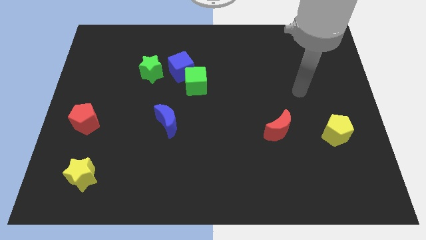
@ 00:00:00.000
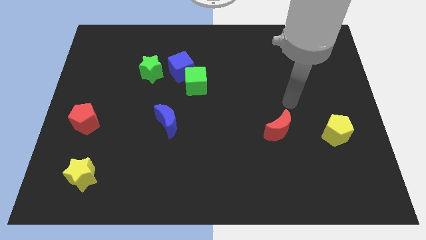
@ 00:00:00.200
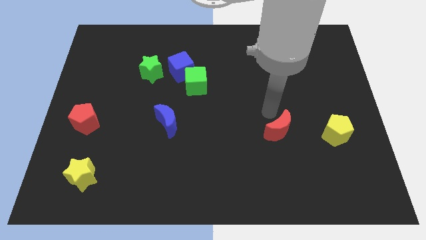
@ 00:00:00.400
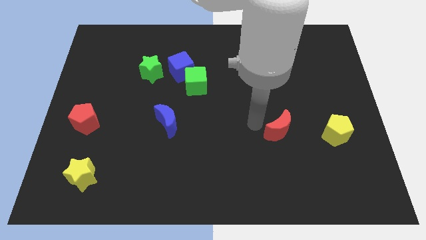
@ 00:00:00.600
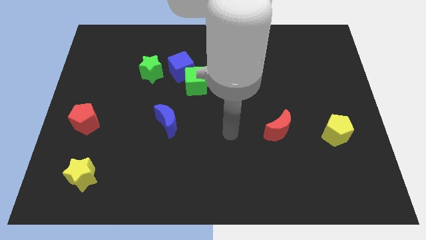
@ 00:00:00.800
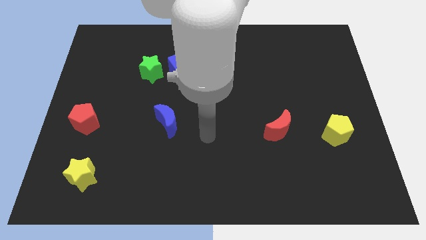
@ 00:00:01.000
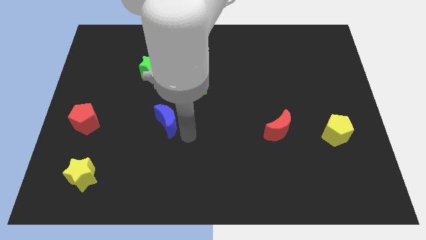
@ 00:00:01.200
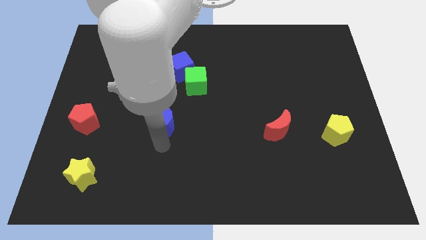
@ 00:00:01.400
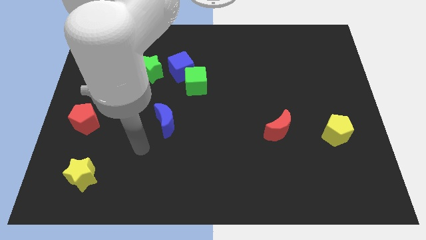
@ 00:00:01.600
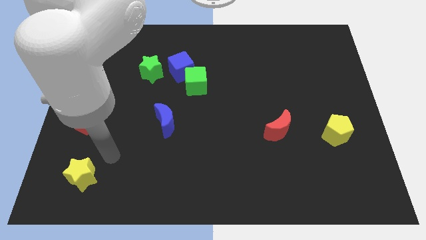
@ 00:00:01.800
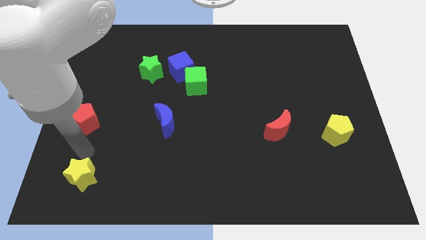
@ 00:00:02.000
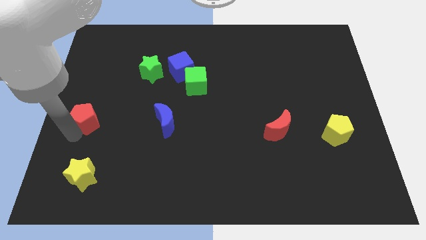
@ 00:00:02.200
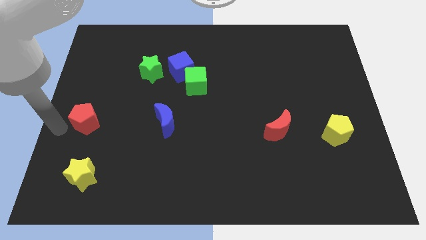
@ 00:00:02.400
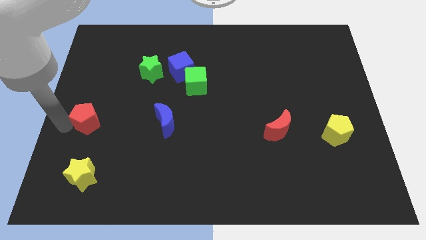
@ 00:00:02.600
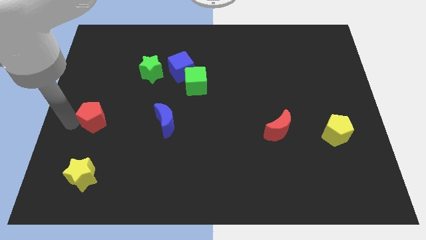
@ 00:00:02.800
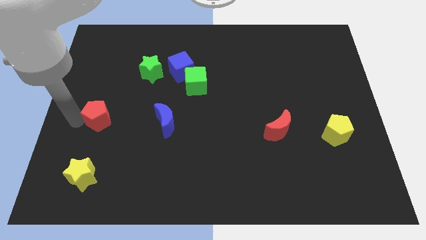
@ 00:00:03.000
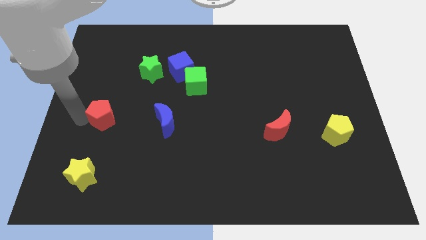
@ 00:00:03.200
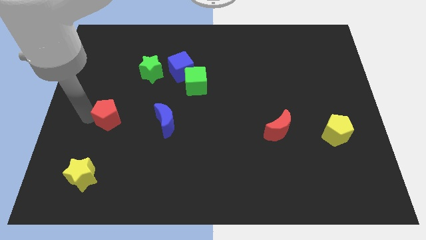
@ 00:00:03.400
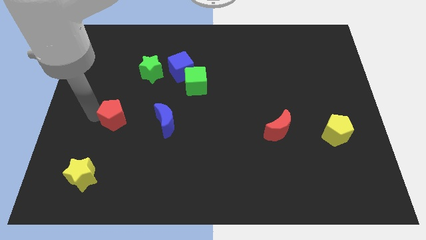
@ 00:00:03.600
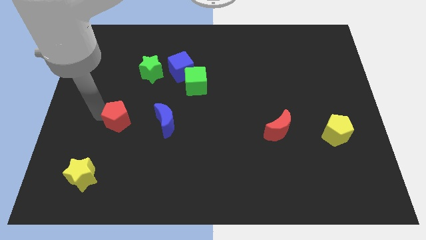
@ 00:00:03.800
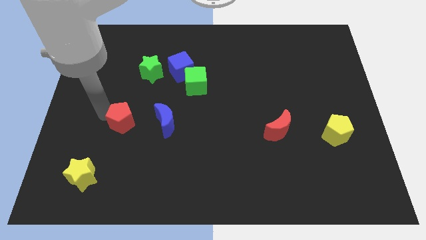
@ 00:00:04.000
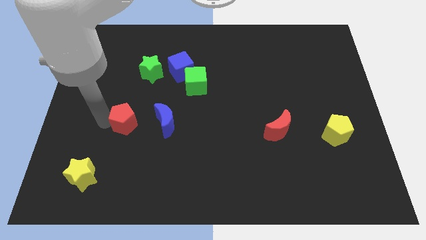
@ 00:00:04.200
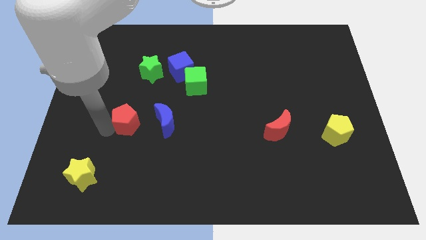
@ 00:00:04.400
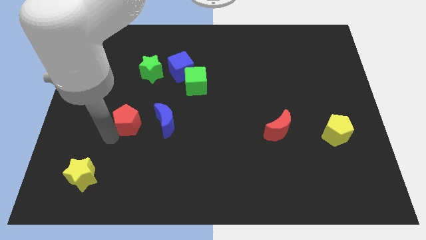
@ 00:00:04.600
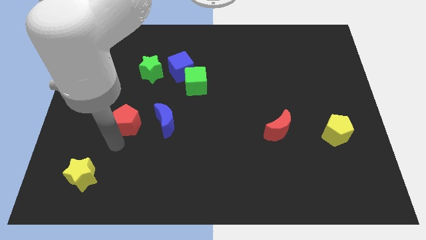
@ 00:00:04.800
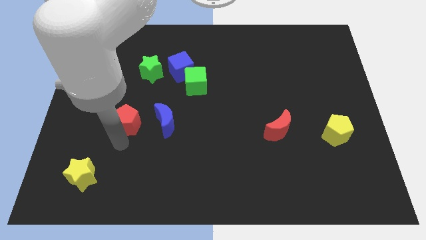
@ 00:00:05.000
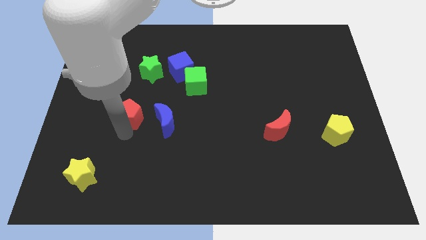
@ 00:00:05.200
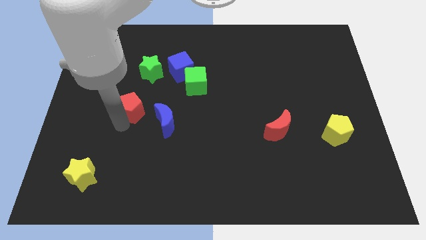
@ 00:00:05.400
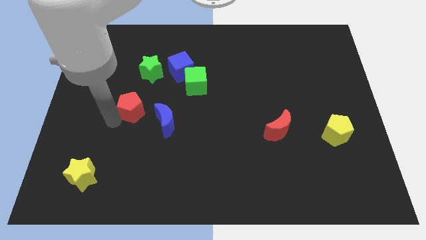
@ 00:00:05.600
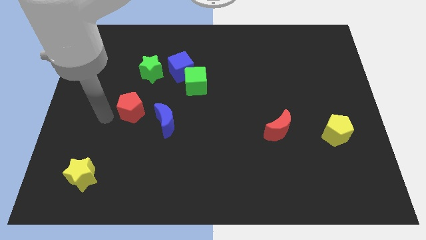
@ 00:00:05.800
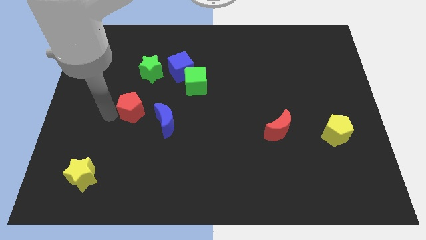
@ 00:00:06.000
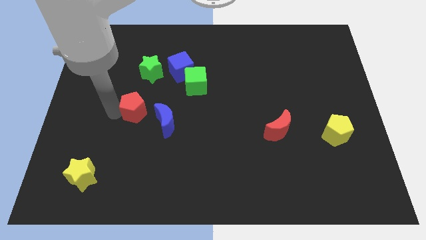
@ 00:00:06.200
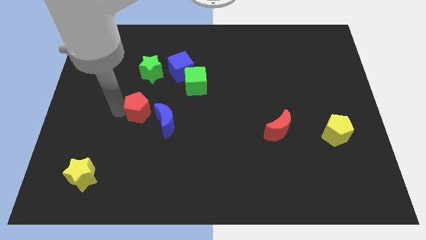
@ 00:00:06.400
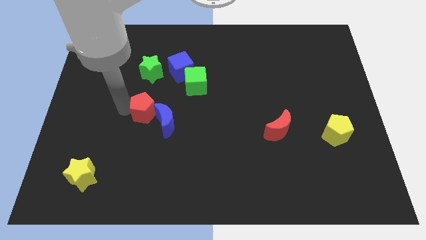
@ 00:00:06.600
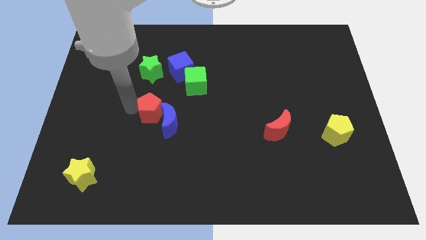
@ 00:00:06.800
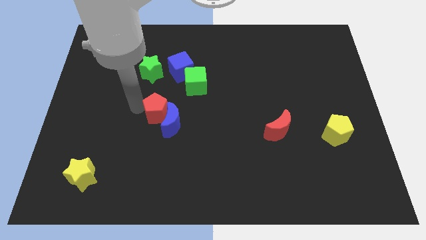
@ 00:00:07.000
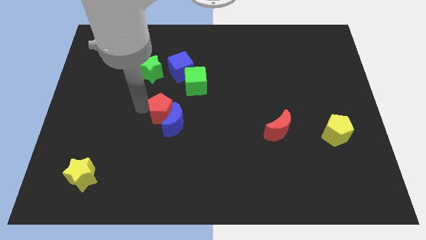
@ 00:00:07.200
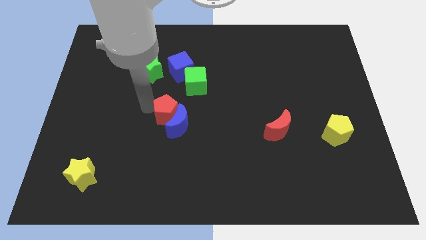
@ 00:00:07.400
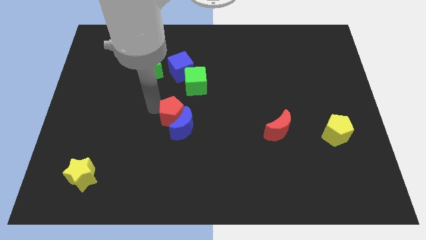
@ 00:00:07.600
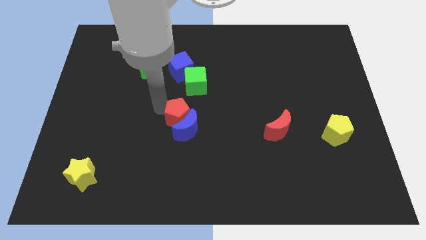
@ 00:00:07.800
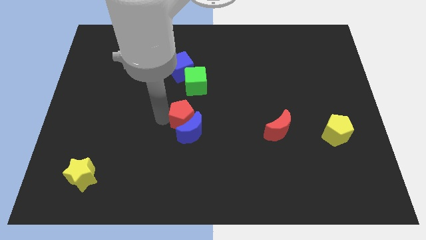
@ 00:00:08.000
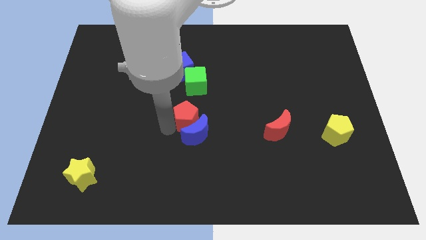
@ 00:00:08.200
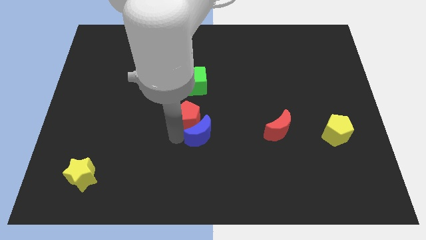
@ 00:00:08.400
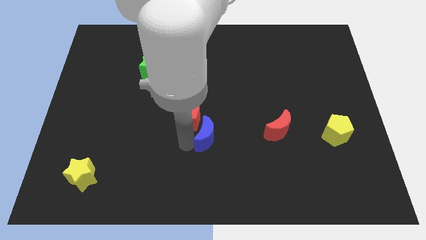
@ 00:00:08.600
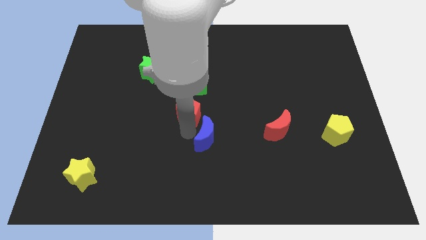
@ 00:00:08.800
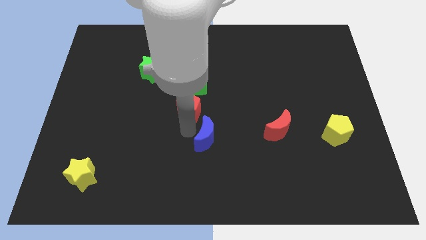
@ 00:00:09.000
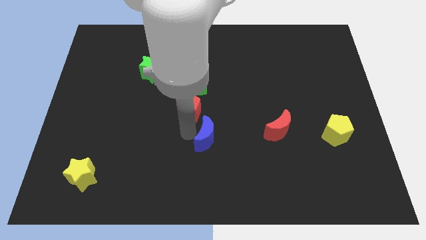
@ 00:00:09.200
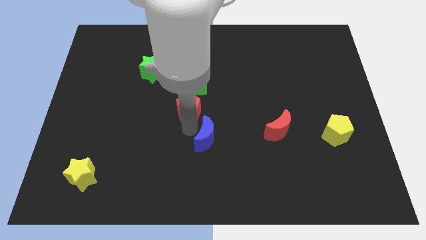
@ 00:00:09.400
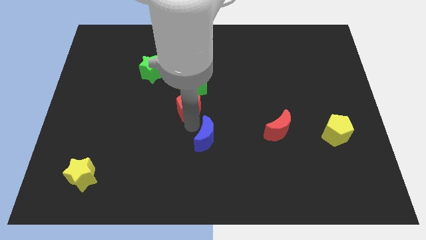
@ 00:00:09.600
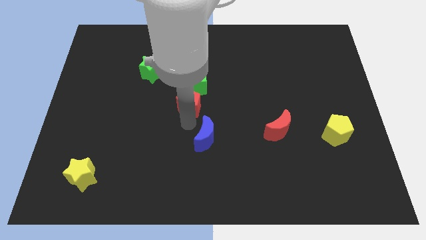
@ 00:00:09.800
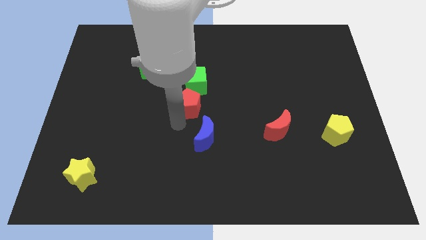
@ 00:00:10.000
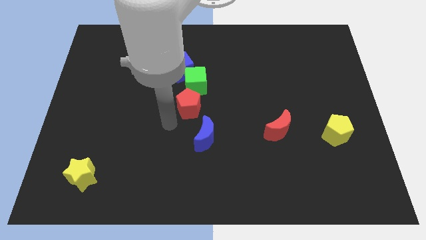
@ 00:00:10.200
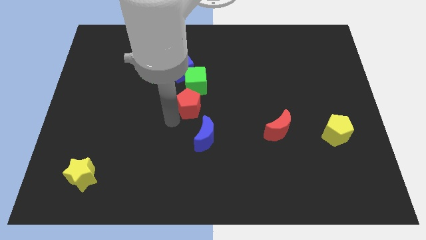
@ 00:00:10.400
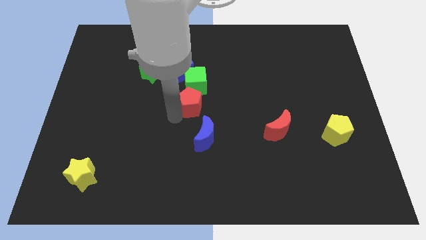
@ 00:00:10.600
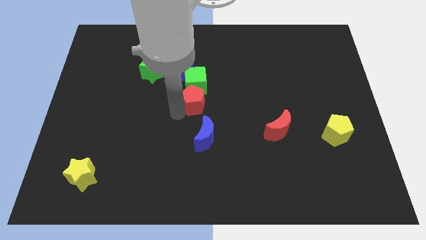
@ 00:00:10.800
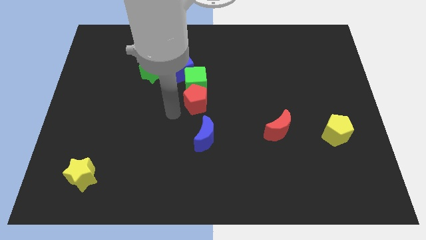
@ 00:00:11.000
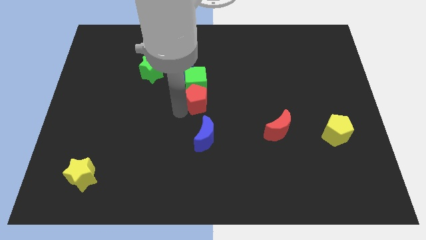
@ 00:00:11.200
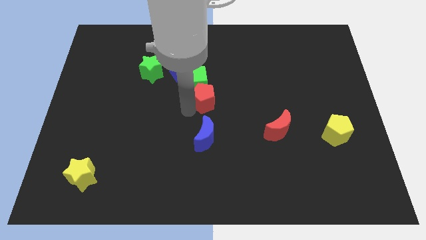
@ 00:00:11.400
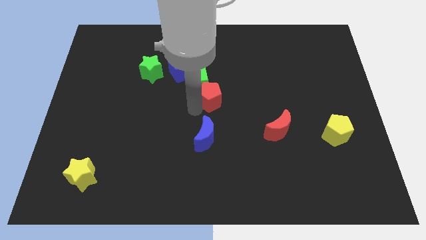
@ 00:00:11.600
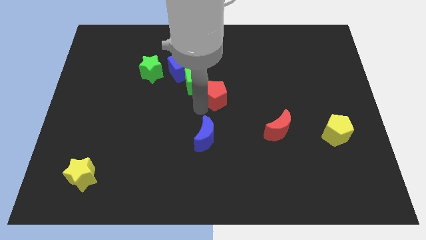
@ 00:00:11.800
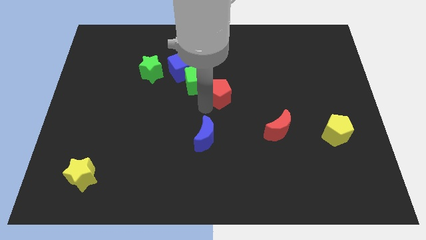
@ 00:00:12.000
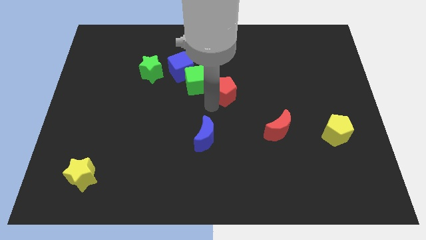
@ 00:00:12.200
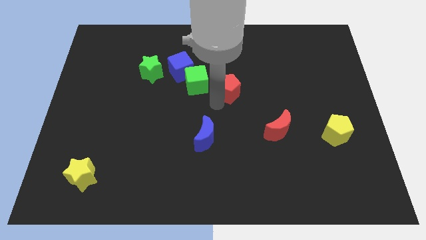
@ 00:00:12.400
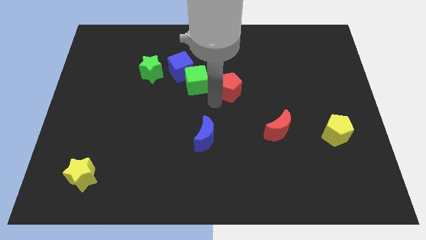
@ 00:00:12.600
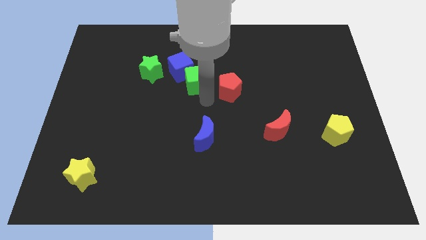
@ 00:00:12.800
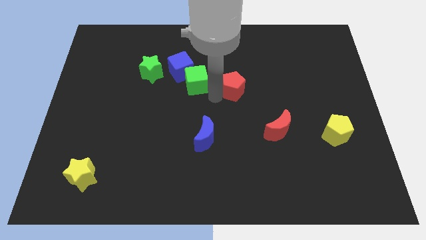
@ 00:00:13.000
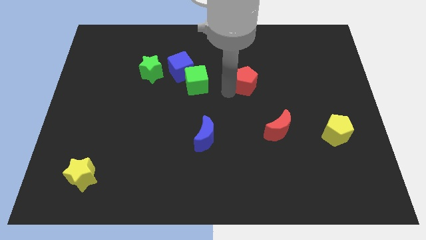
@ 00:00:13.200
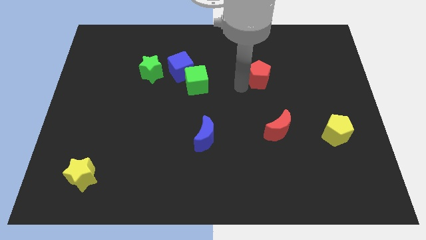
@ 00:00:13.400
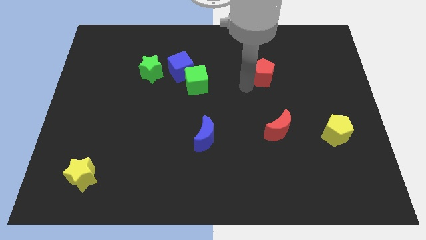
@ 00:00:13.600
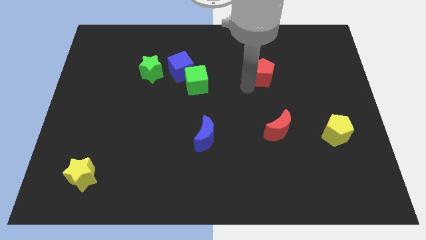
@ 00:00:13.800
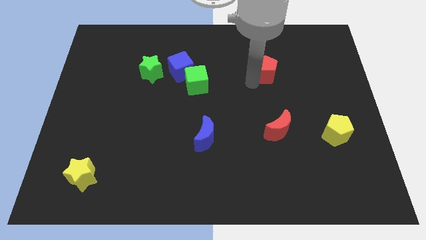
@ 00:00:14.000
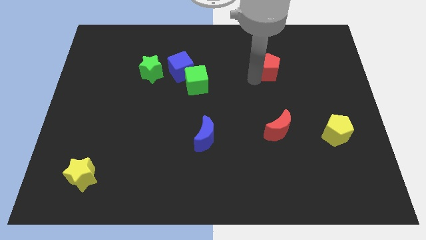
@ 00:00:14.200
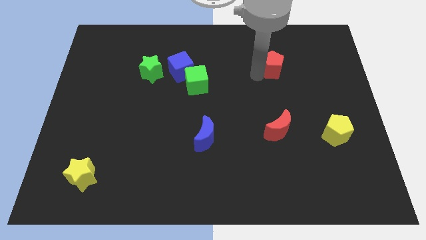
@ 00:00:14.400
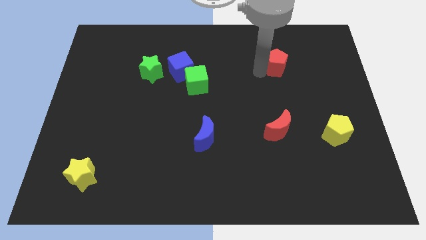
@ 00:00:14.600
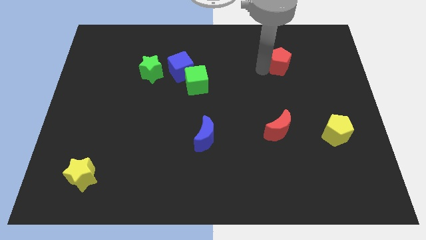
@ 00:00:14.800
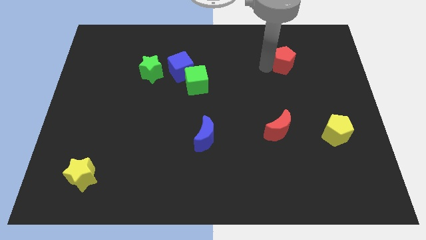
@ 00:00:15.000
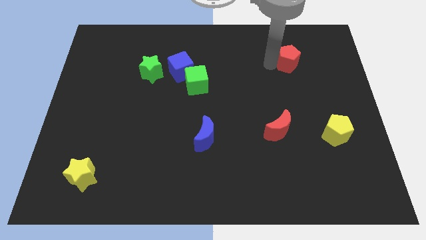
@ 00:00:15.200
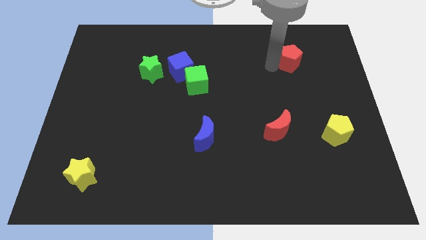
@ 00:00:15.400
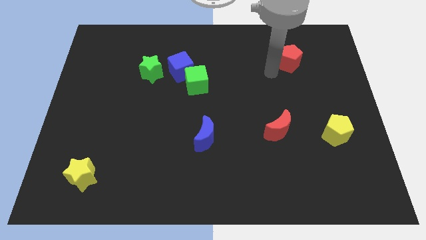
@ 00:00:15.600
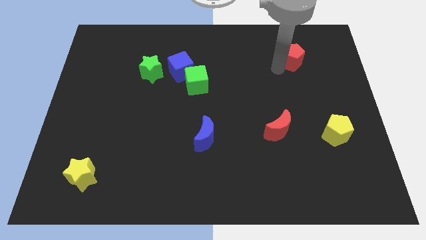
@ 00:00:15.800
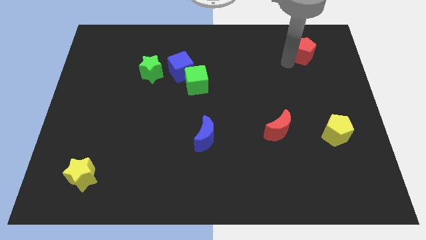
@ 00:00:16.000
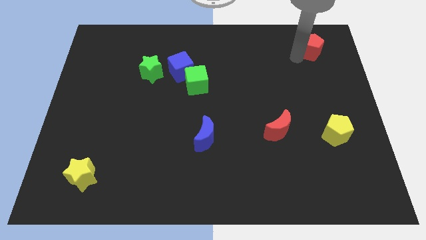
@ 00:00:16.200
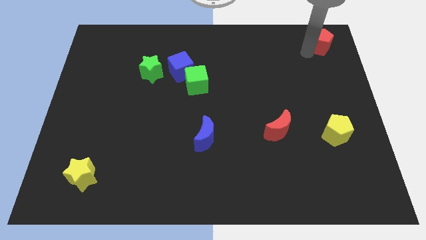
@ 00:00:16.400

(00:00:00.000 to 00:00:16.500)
put the red pentagon to the top right corner
